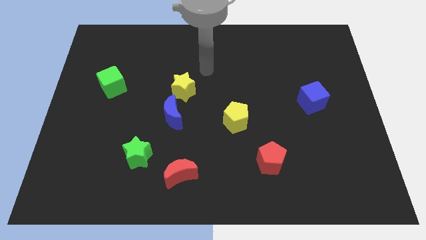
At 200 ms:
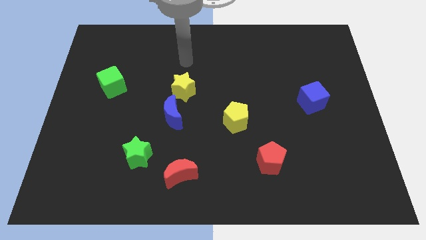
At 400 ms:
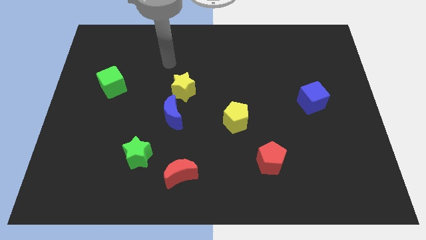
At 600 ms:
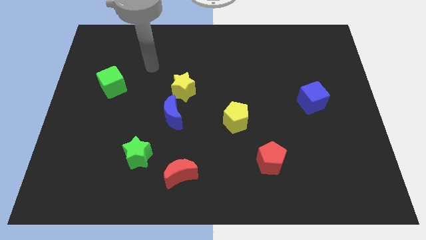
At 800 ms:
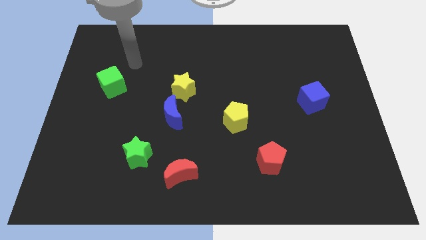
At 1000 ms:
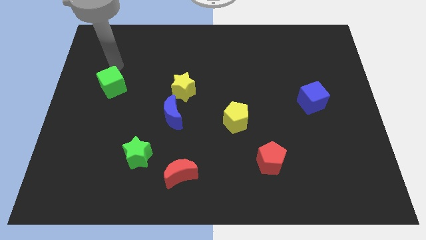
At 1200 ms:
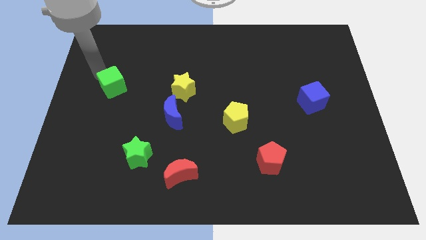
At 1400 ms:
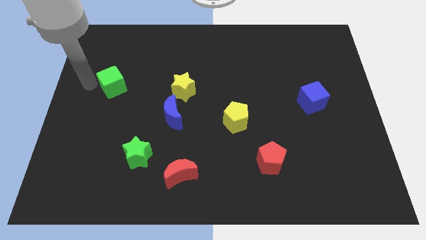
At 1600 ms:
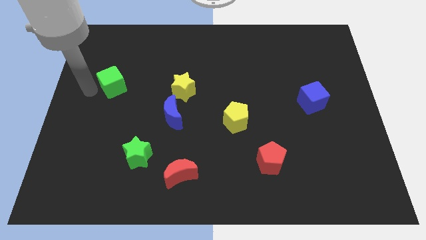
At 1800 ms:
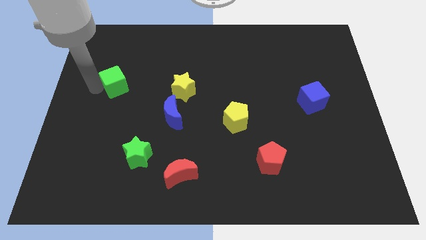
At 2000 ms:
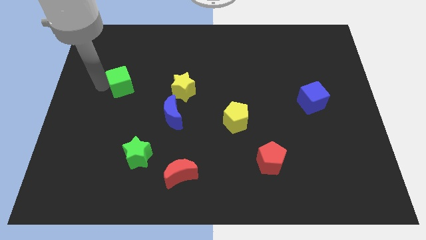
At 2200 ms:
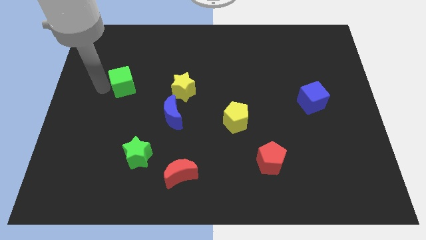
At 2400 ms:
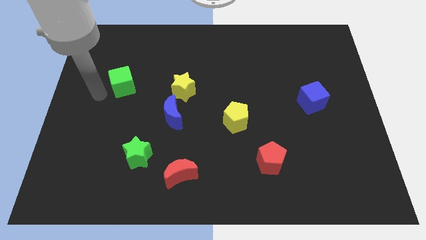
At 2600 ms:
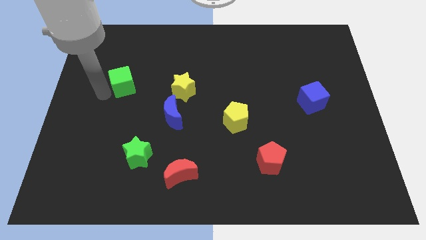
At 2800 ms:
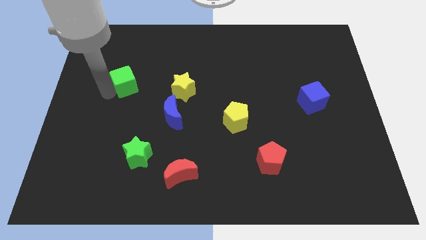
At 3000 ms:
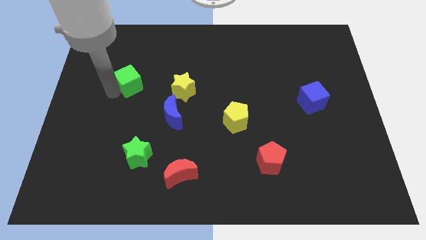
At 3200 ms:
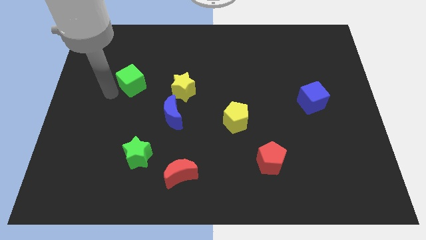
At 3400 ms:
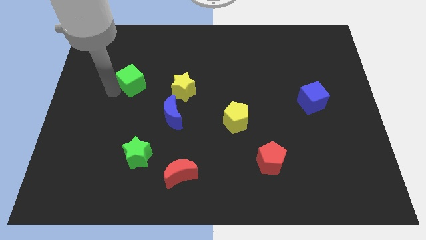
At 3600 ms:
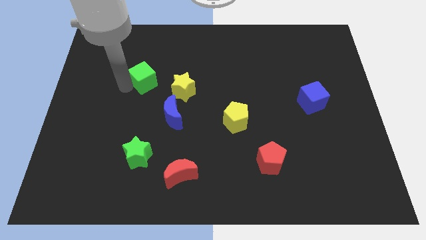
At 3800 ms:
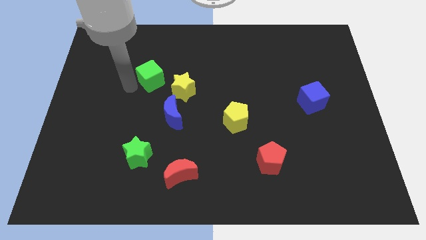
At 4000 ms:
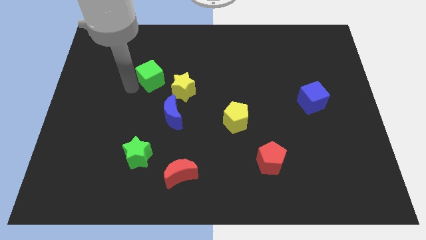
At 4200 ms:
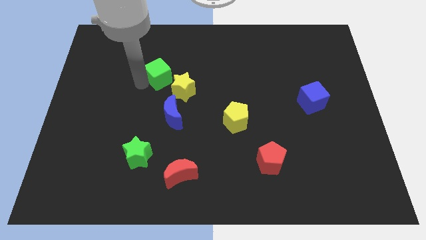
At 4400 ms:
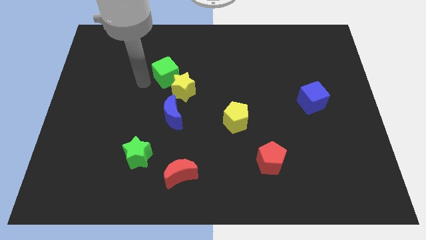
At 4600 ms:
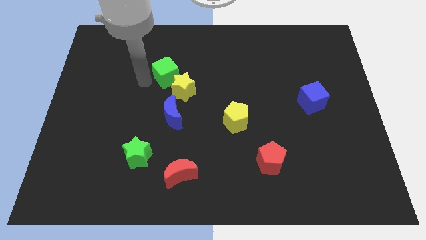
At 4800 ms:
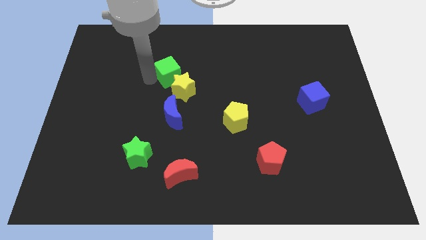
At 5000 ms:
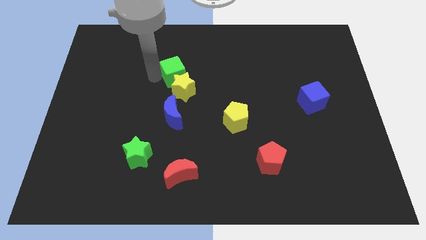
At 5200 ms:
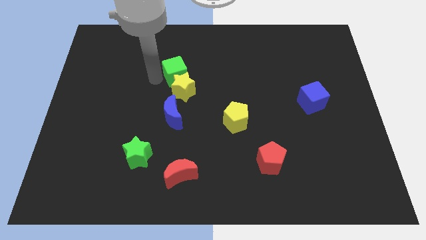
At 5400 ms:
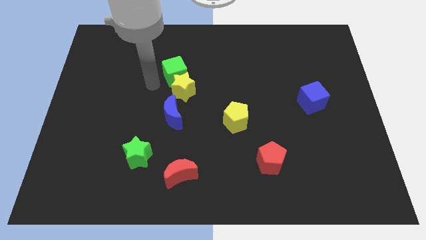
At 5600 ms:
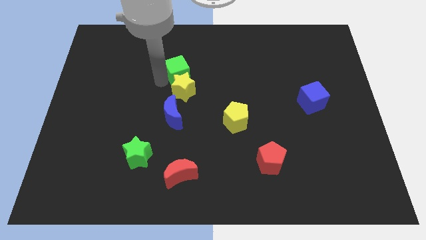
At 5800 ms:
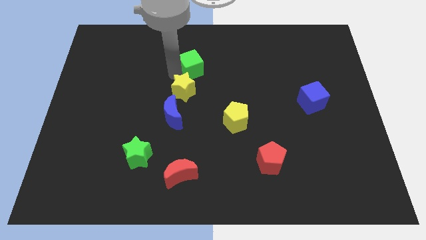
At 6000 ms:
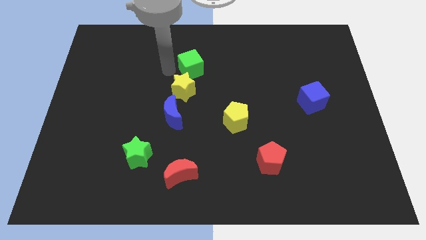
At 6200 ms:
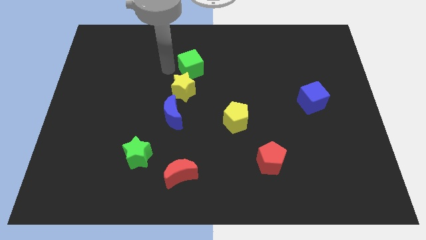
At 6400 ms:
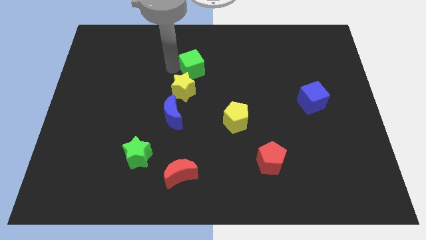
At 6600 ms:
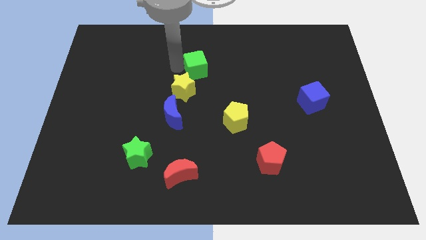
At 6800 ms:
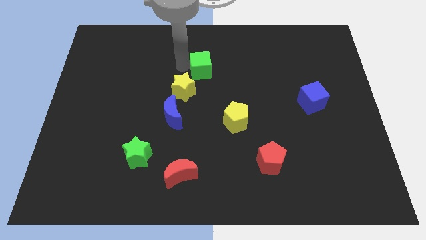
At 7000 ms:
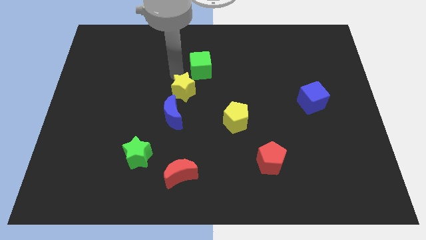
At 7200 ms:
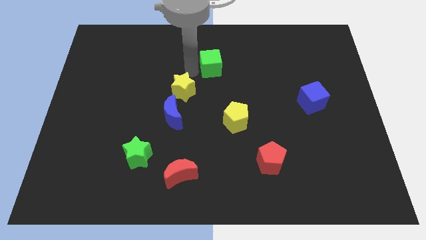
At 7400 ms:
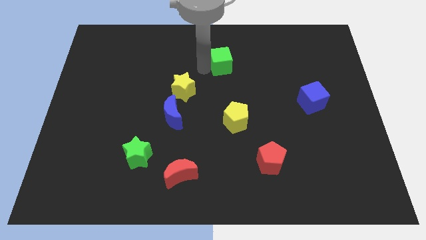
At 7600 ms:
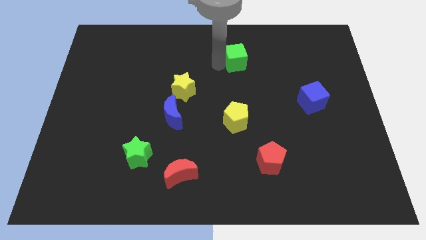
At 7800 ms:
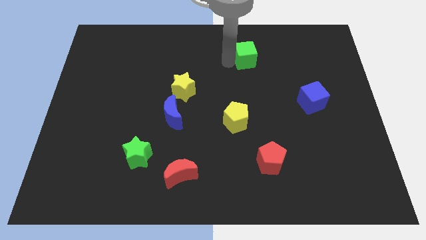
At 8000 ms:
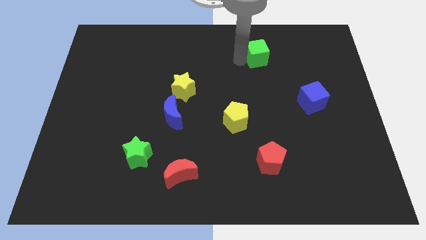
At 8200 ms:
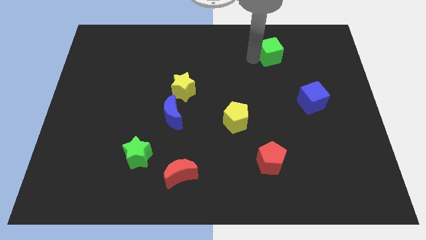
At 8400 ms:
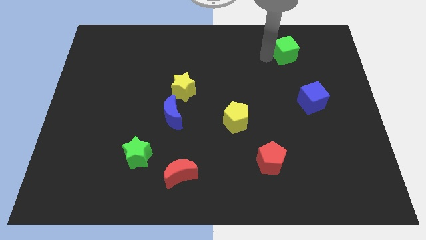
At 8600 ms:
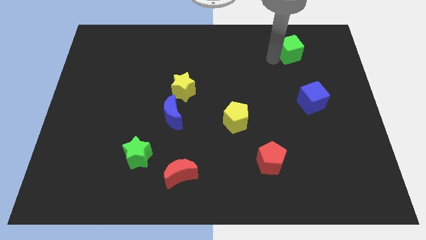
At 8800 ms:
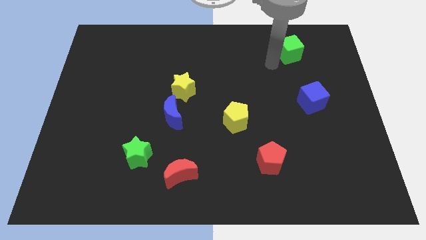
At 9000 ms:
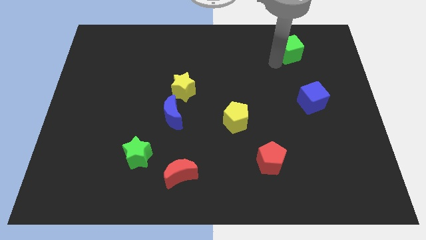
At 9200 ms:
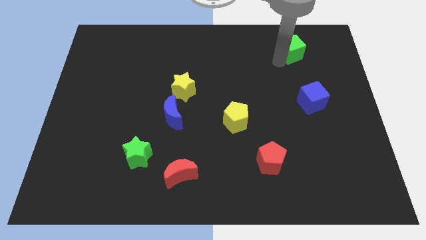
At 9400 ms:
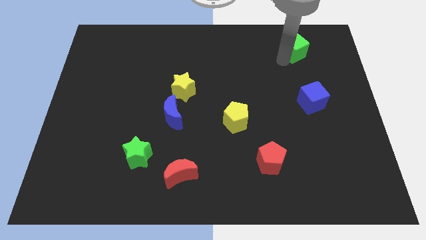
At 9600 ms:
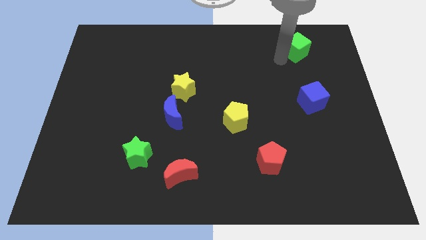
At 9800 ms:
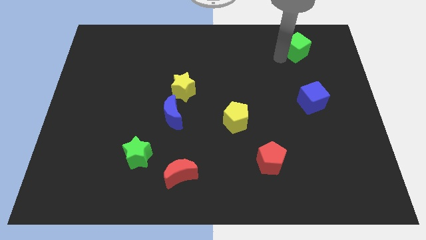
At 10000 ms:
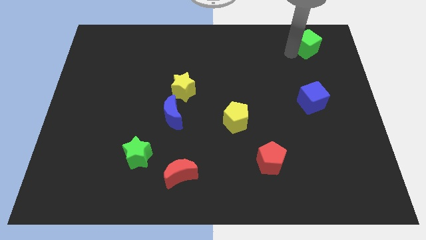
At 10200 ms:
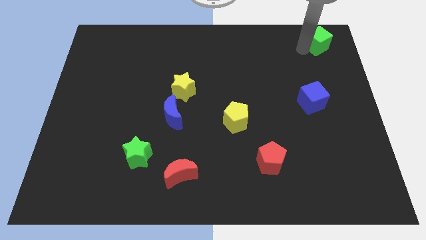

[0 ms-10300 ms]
slide the green cube to the upper right corner

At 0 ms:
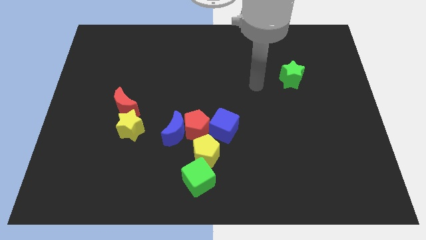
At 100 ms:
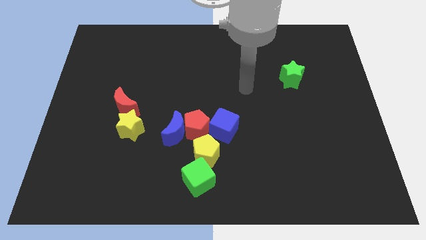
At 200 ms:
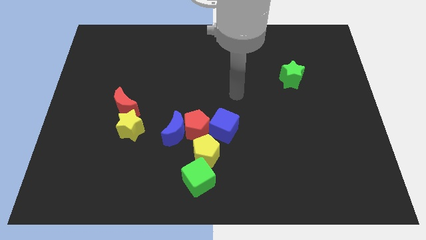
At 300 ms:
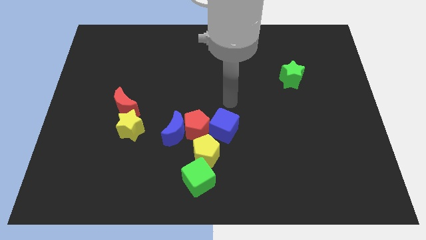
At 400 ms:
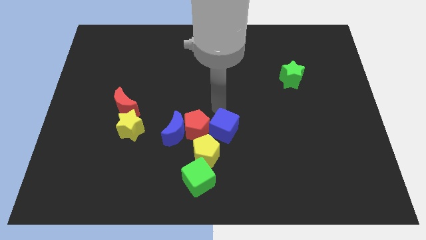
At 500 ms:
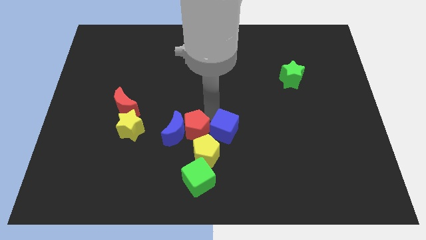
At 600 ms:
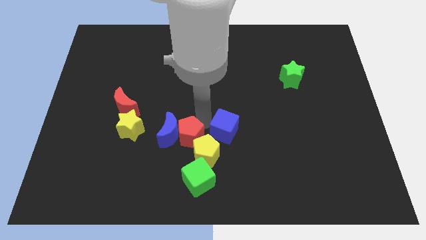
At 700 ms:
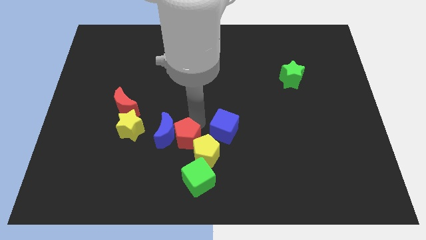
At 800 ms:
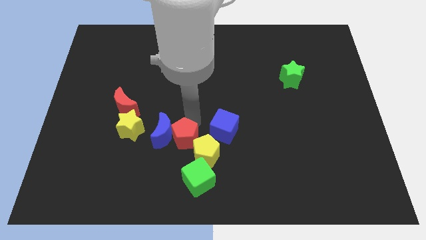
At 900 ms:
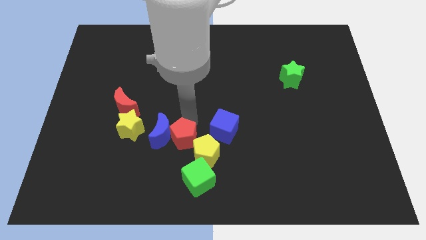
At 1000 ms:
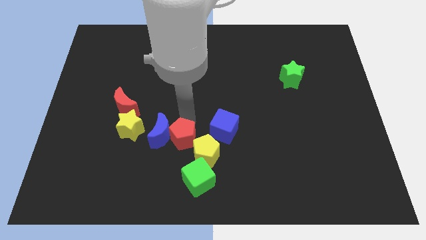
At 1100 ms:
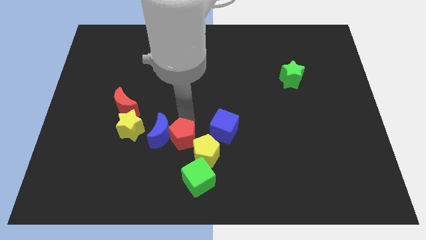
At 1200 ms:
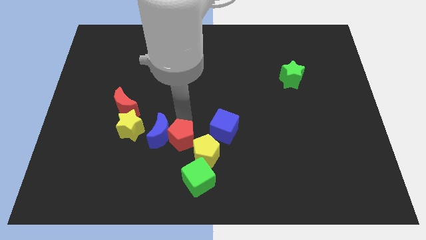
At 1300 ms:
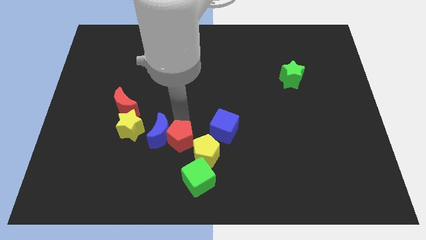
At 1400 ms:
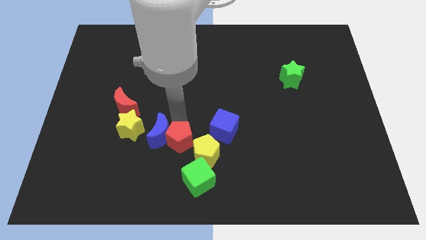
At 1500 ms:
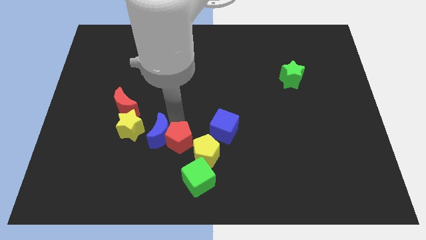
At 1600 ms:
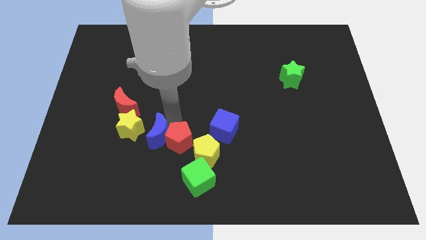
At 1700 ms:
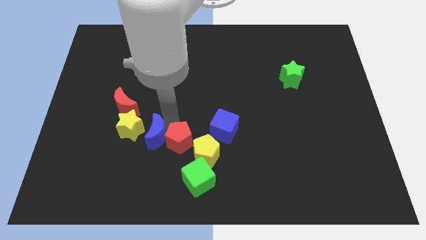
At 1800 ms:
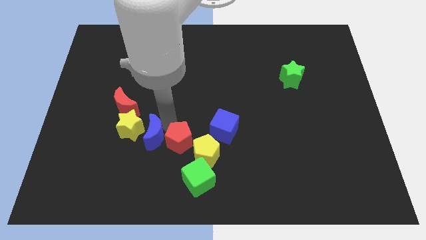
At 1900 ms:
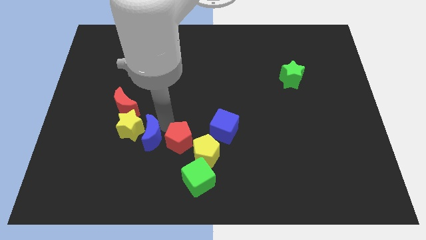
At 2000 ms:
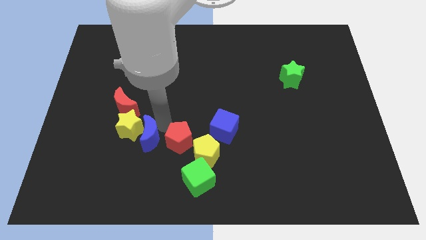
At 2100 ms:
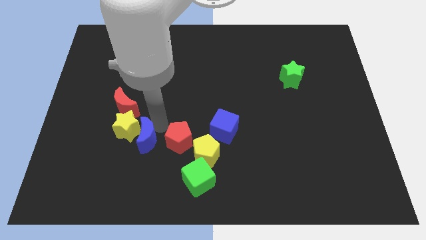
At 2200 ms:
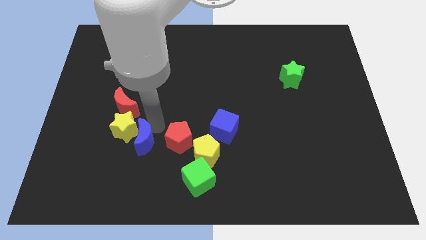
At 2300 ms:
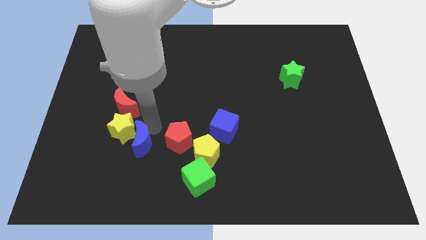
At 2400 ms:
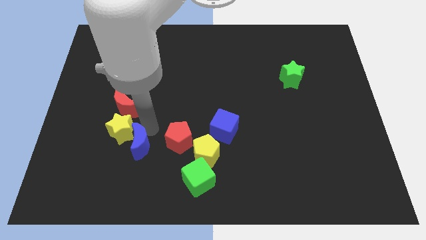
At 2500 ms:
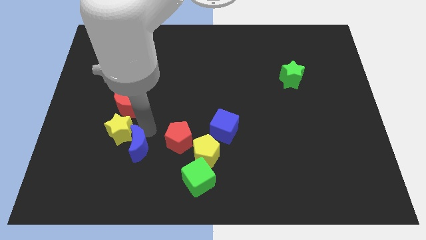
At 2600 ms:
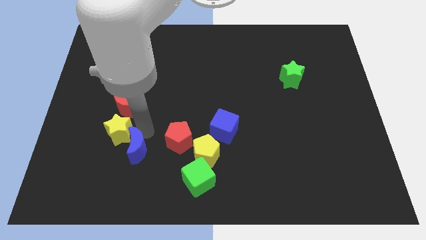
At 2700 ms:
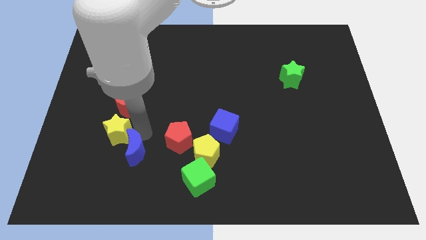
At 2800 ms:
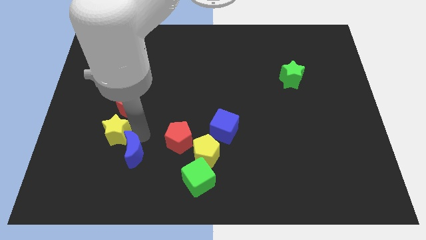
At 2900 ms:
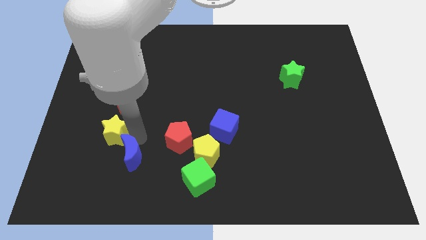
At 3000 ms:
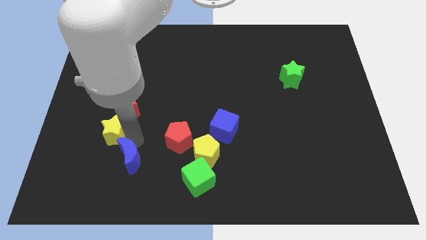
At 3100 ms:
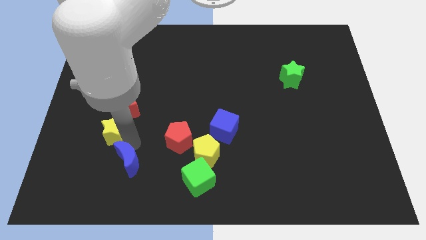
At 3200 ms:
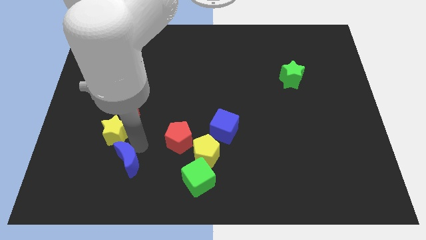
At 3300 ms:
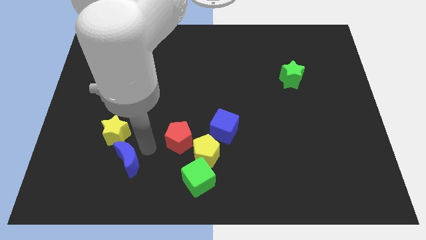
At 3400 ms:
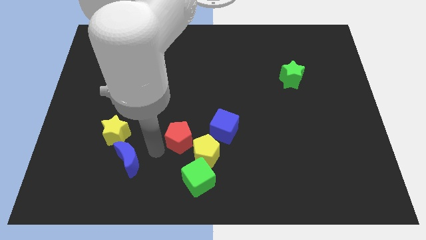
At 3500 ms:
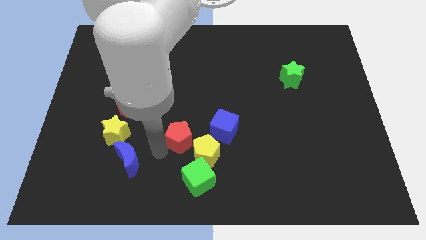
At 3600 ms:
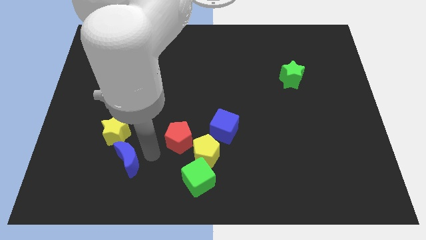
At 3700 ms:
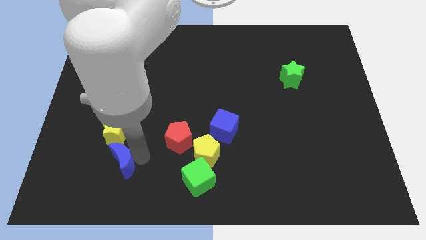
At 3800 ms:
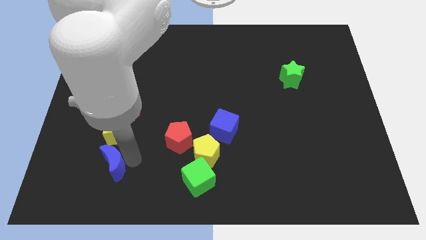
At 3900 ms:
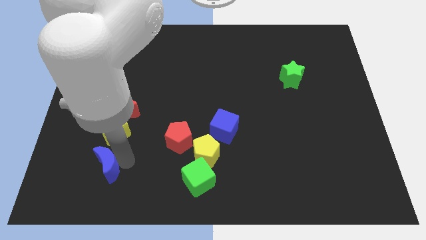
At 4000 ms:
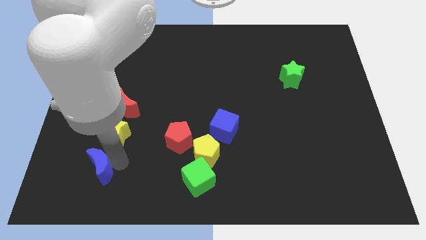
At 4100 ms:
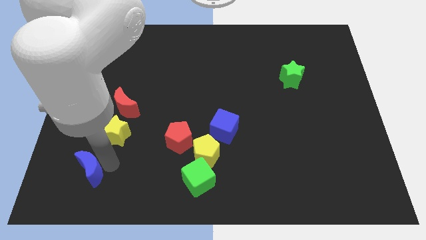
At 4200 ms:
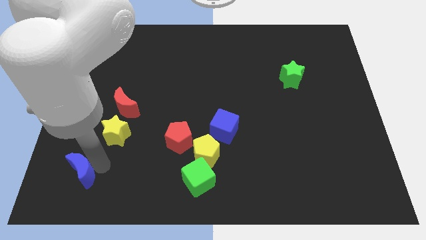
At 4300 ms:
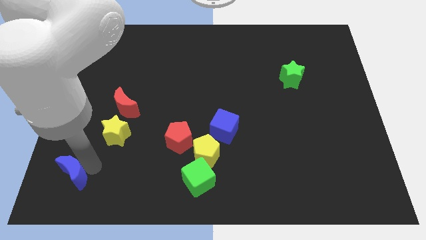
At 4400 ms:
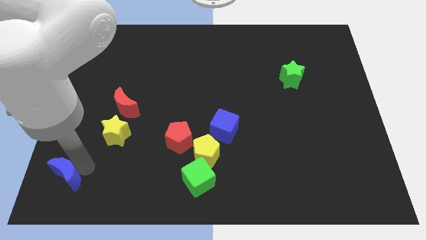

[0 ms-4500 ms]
slide the blue moon to the lower left corner
